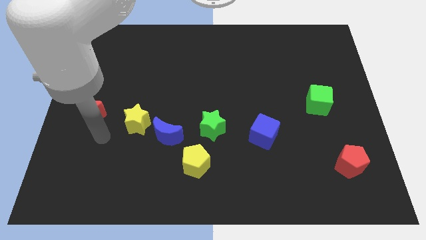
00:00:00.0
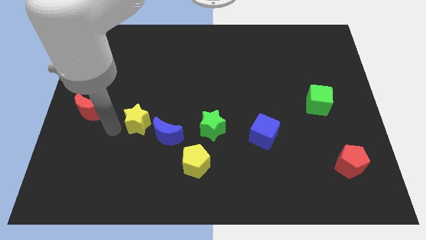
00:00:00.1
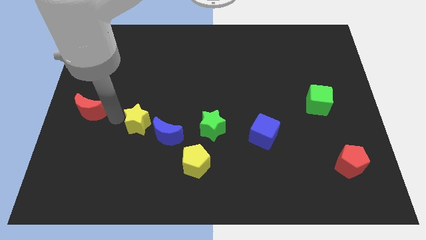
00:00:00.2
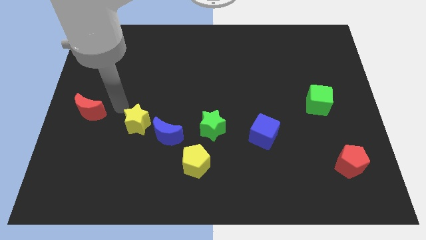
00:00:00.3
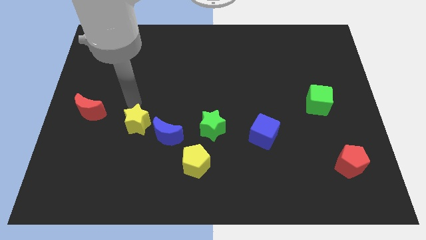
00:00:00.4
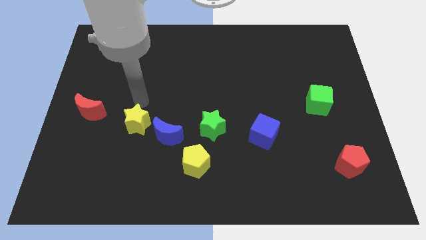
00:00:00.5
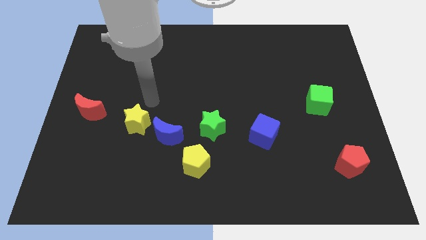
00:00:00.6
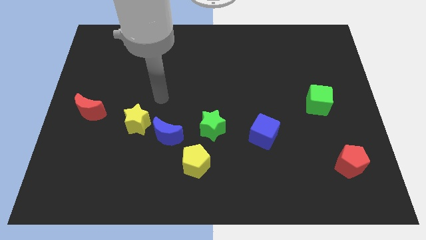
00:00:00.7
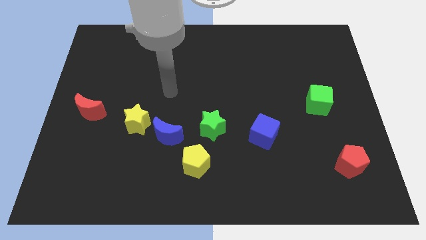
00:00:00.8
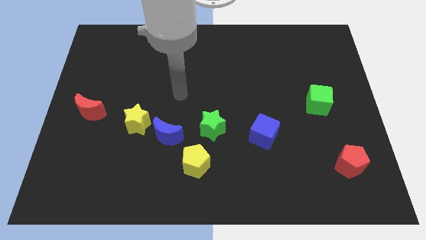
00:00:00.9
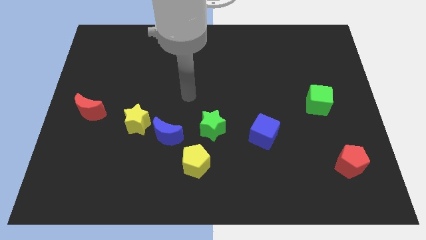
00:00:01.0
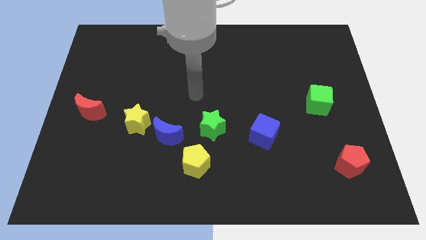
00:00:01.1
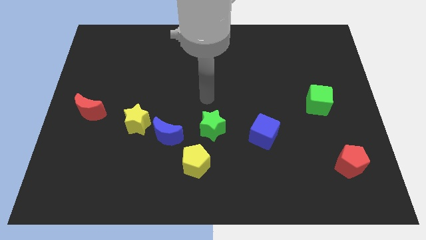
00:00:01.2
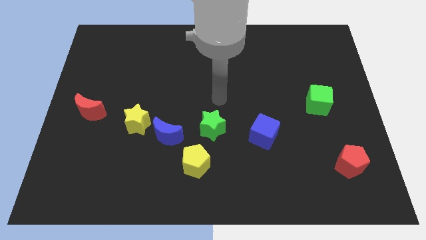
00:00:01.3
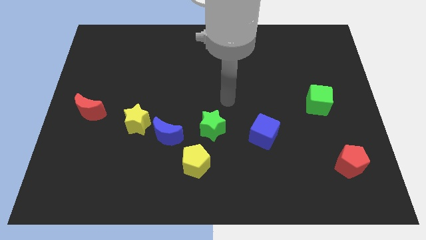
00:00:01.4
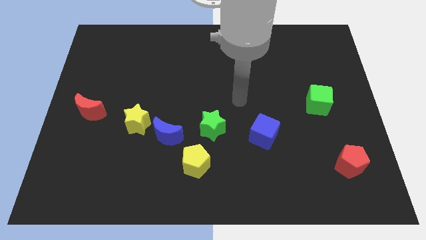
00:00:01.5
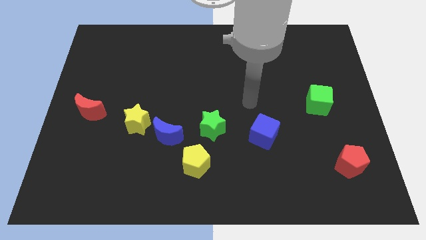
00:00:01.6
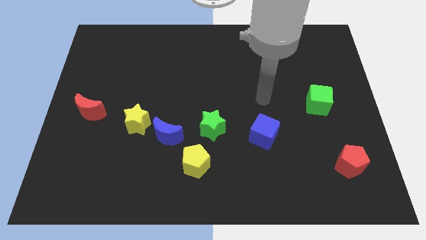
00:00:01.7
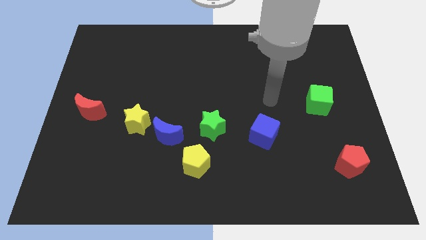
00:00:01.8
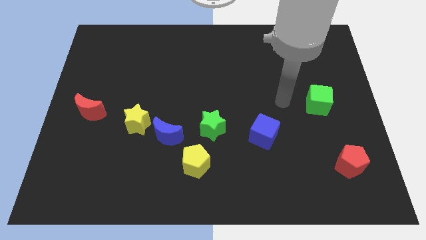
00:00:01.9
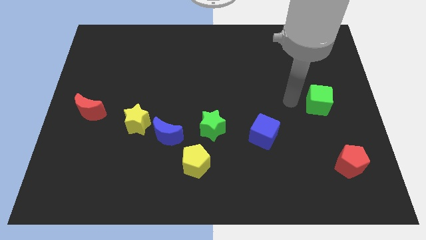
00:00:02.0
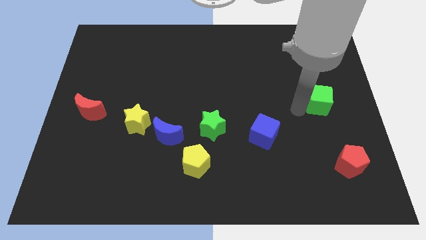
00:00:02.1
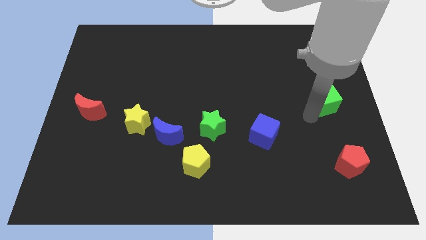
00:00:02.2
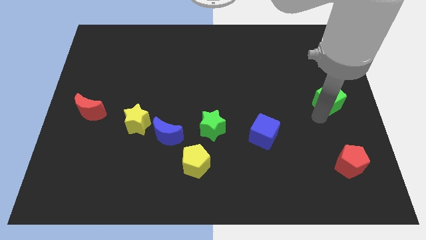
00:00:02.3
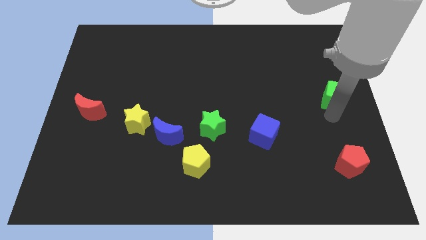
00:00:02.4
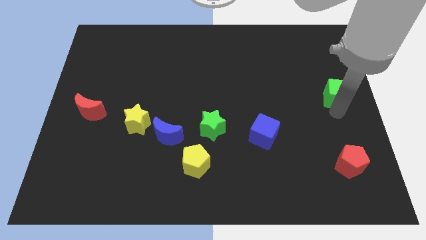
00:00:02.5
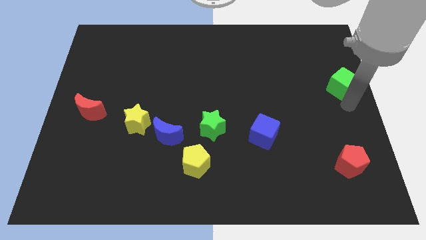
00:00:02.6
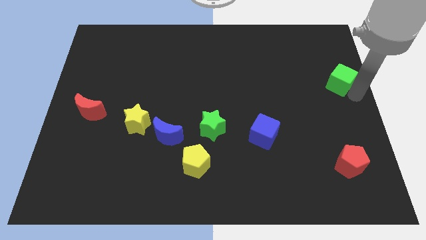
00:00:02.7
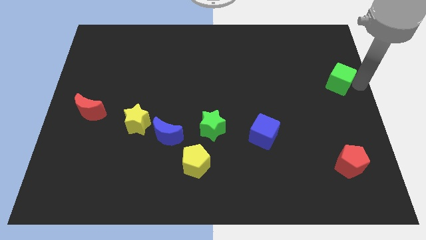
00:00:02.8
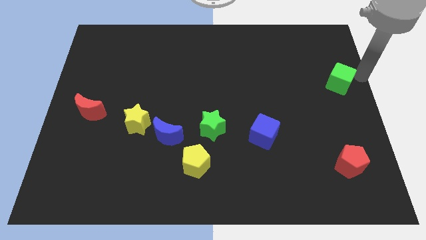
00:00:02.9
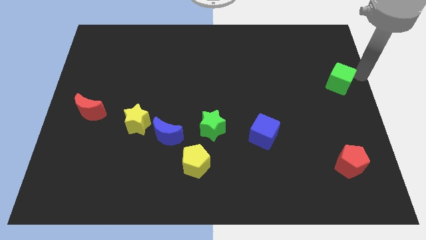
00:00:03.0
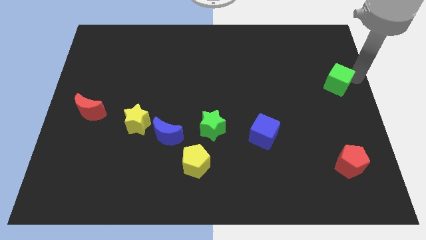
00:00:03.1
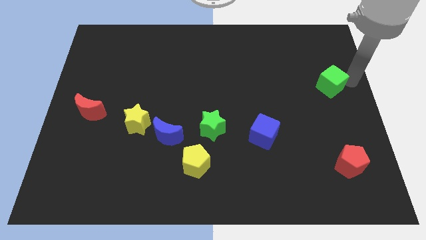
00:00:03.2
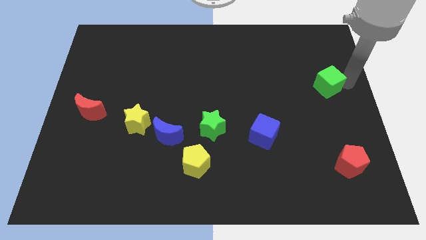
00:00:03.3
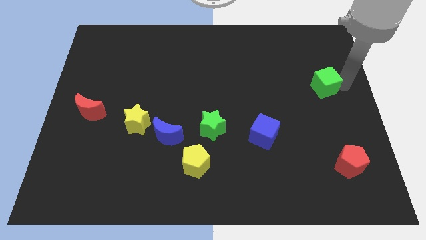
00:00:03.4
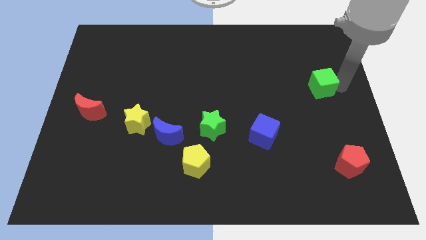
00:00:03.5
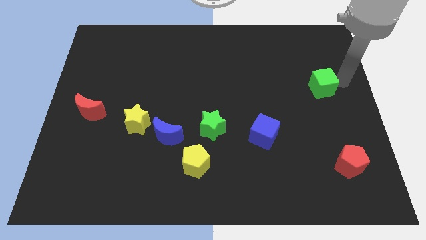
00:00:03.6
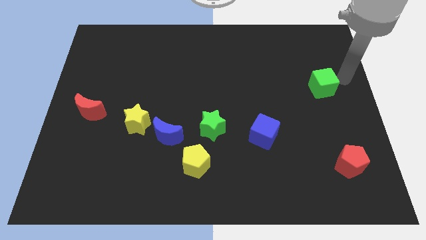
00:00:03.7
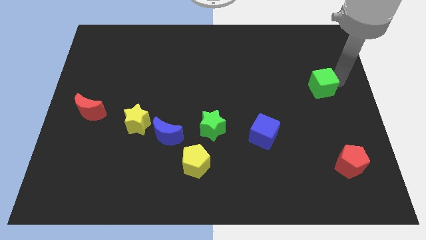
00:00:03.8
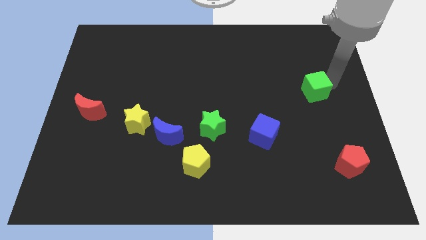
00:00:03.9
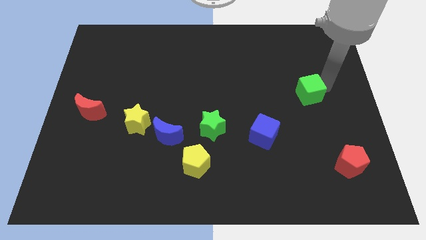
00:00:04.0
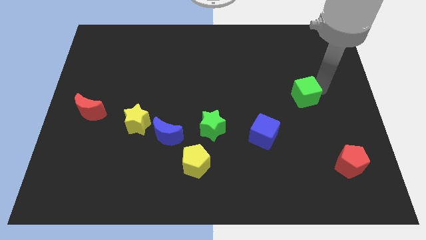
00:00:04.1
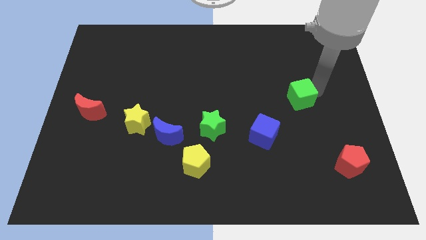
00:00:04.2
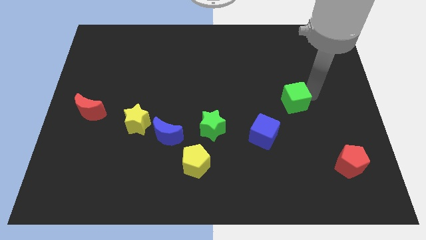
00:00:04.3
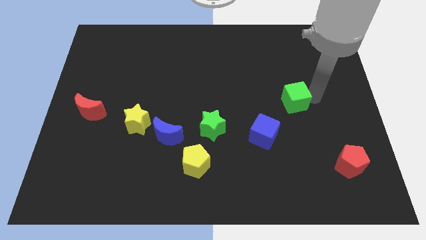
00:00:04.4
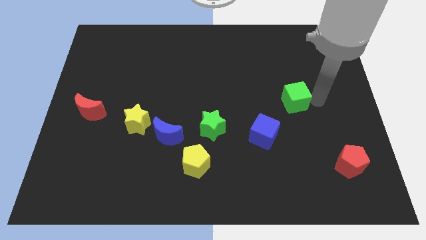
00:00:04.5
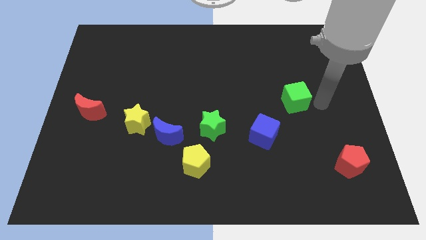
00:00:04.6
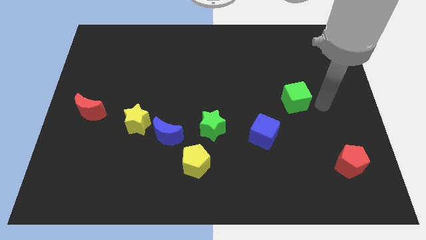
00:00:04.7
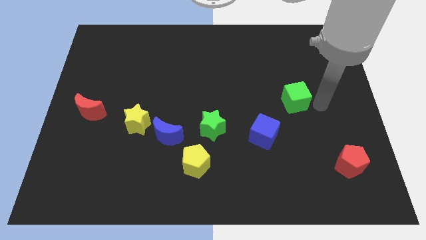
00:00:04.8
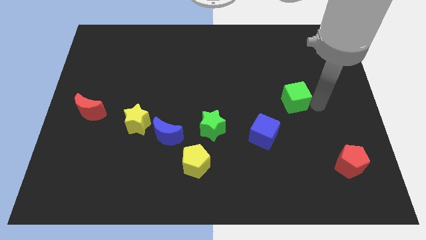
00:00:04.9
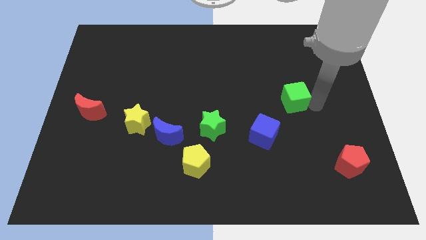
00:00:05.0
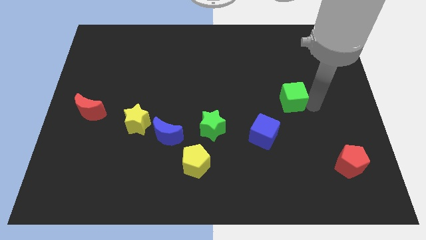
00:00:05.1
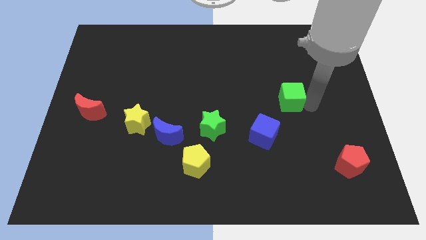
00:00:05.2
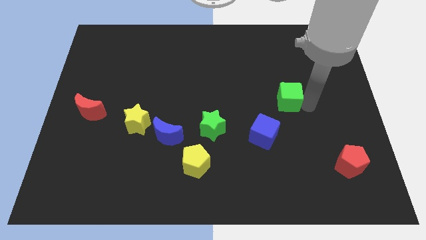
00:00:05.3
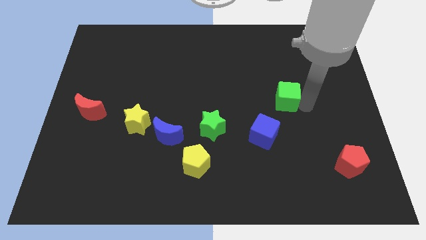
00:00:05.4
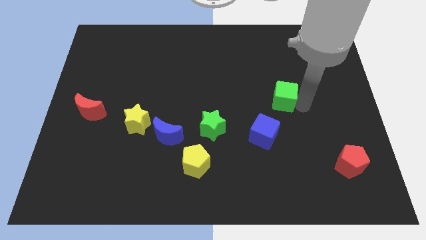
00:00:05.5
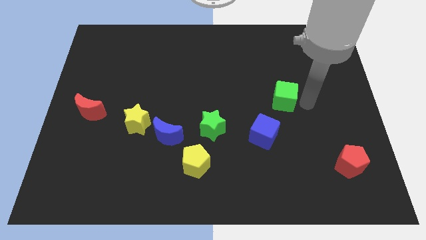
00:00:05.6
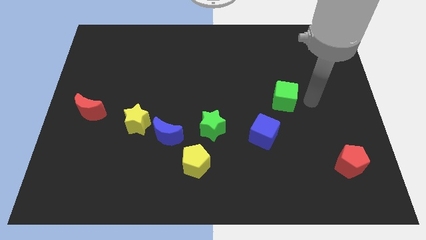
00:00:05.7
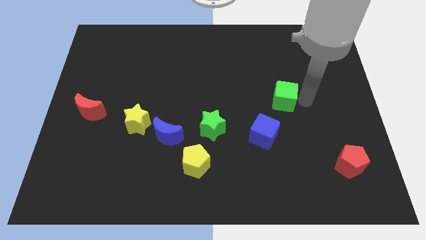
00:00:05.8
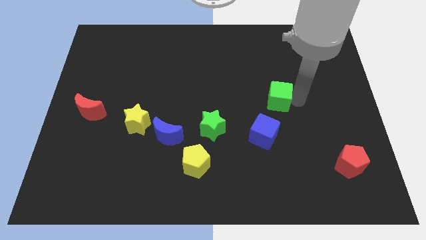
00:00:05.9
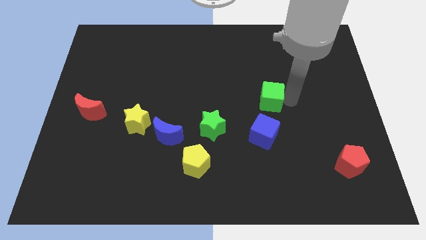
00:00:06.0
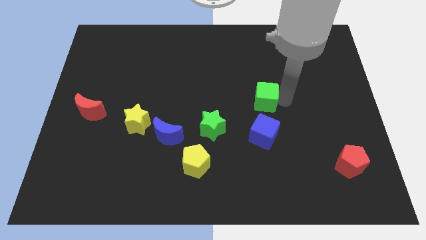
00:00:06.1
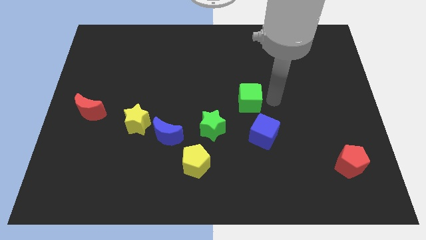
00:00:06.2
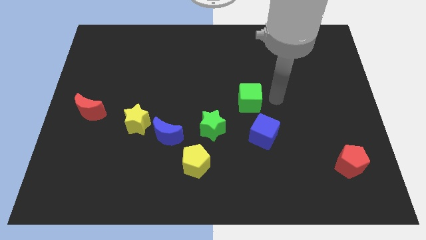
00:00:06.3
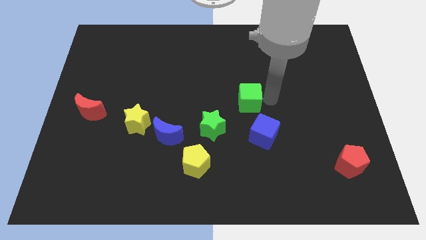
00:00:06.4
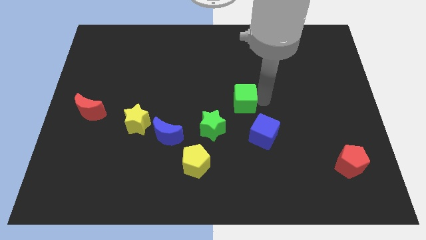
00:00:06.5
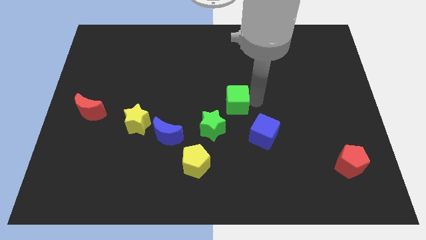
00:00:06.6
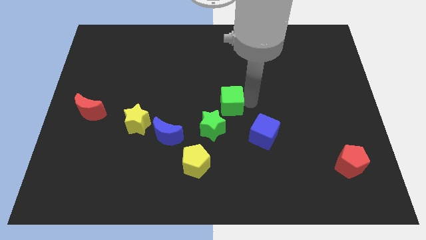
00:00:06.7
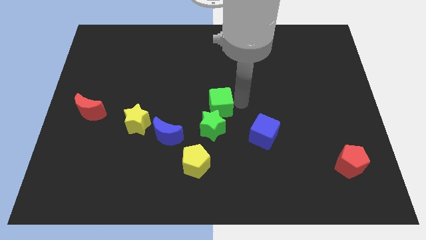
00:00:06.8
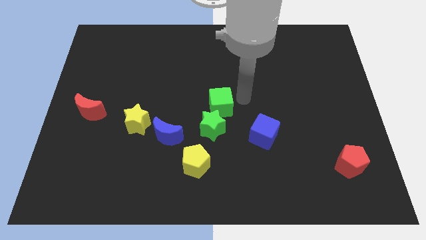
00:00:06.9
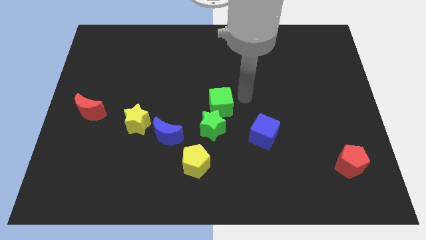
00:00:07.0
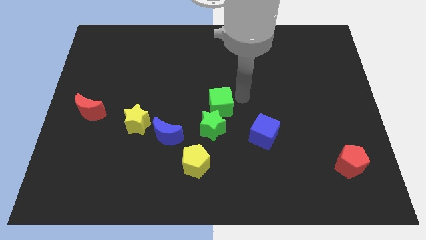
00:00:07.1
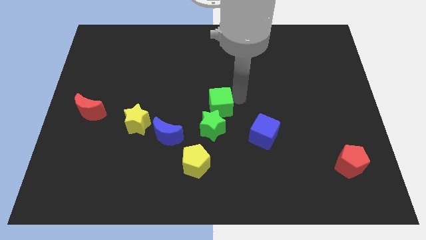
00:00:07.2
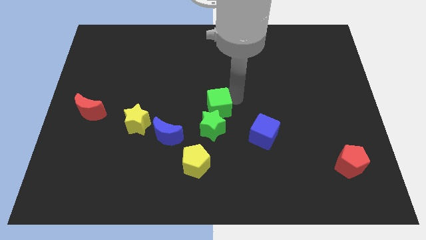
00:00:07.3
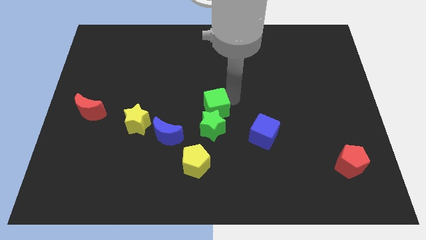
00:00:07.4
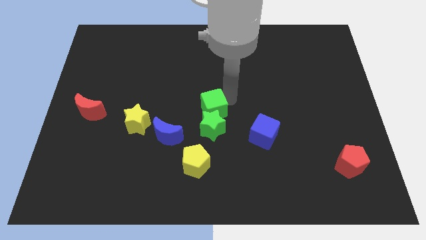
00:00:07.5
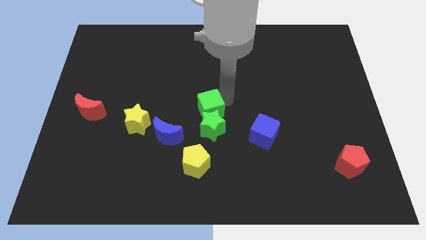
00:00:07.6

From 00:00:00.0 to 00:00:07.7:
move the green cube diagonally up and to the right of the blue moon

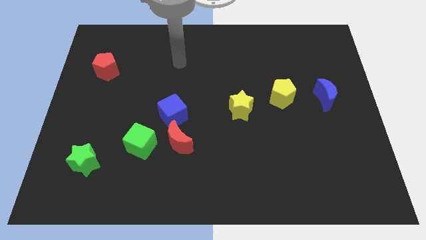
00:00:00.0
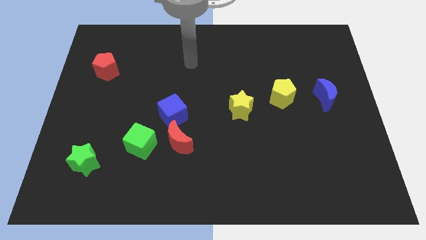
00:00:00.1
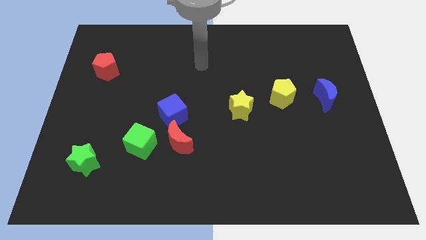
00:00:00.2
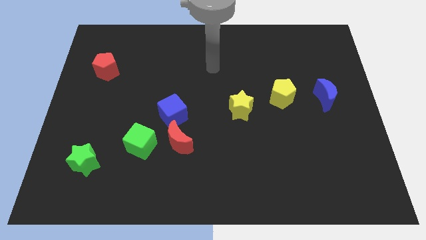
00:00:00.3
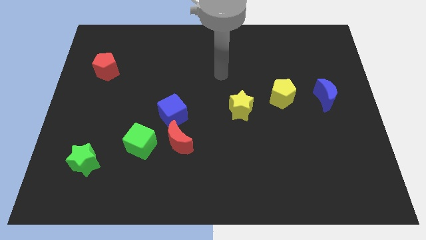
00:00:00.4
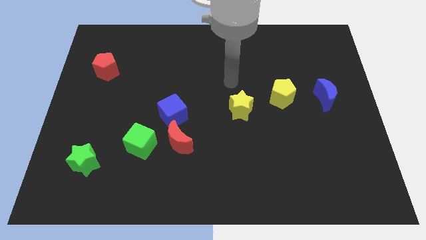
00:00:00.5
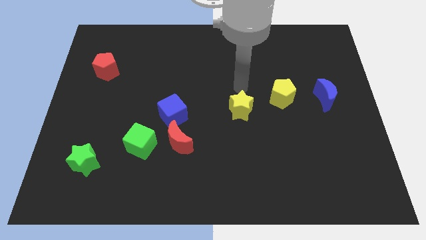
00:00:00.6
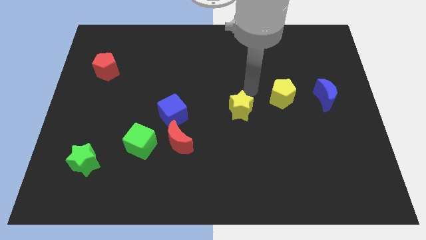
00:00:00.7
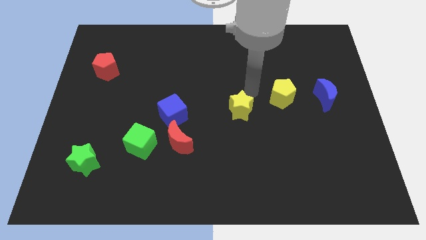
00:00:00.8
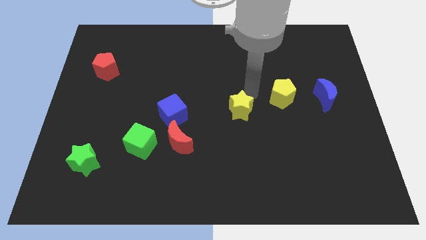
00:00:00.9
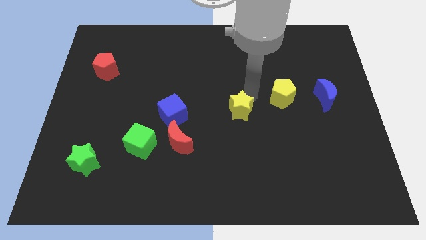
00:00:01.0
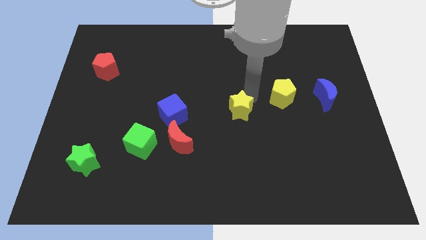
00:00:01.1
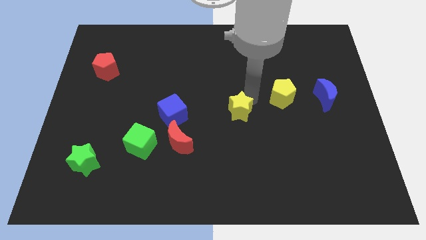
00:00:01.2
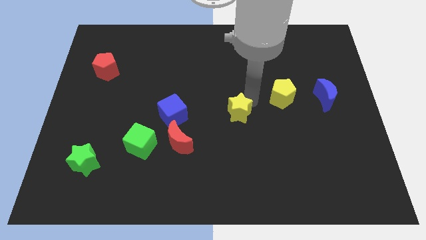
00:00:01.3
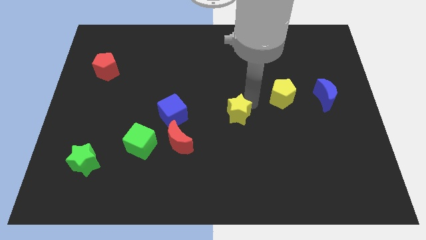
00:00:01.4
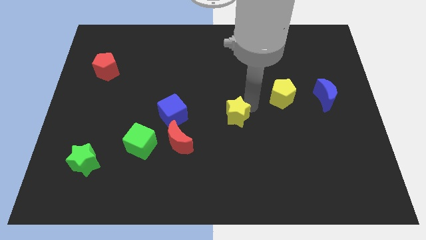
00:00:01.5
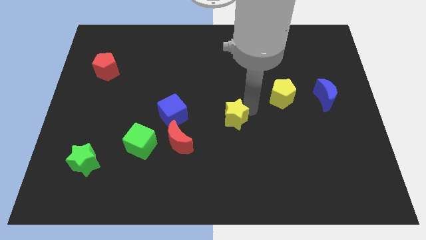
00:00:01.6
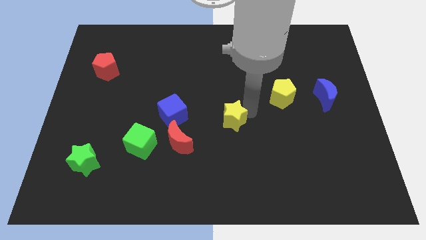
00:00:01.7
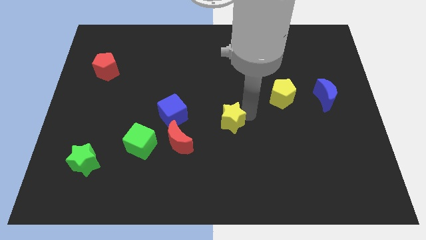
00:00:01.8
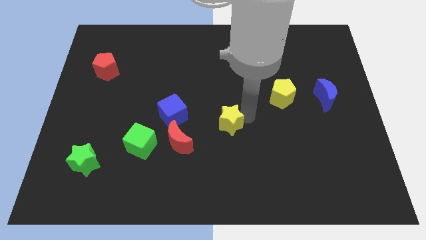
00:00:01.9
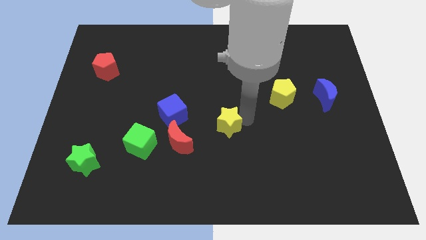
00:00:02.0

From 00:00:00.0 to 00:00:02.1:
push the yellow star right of the red moon
